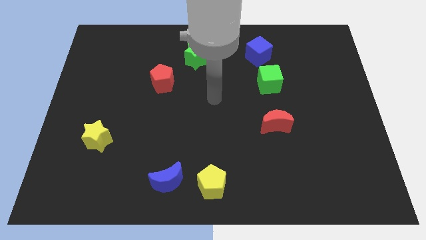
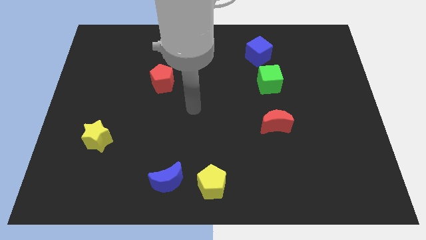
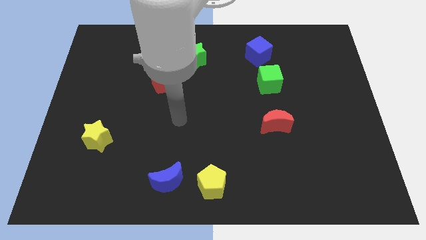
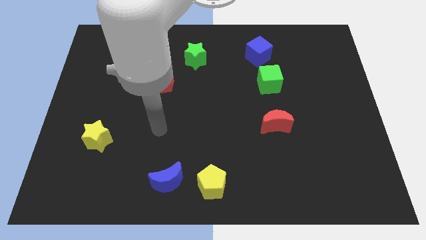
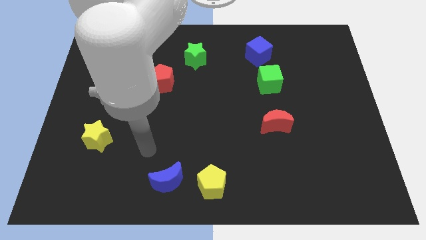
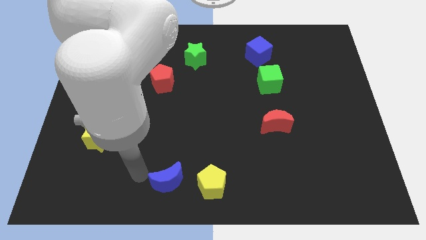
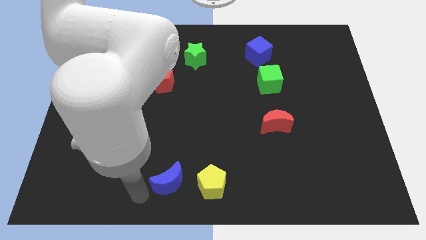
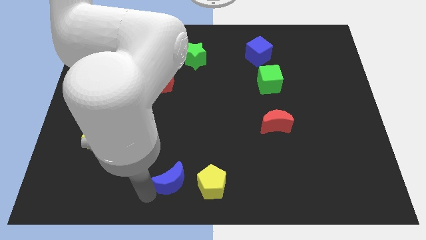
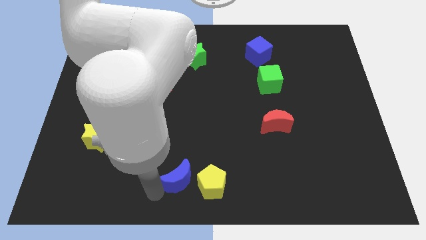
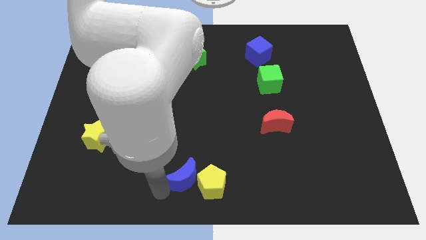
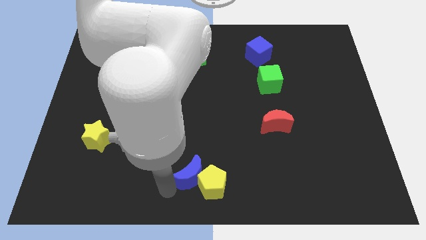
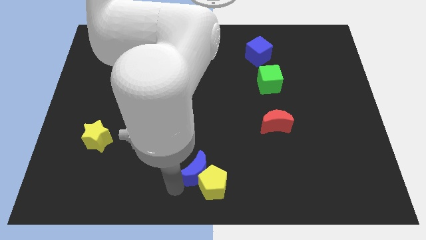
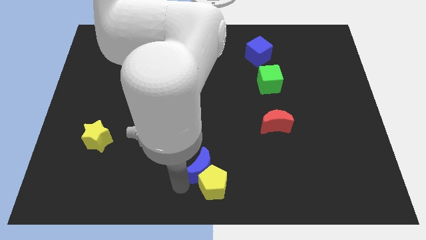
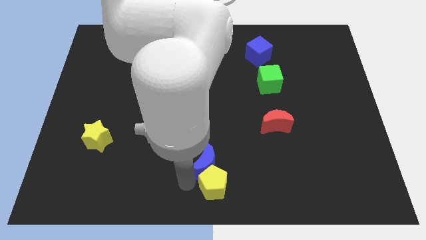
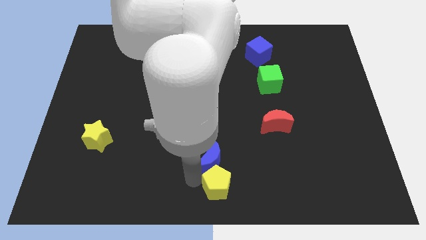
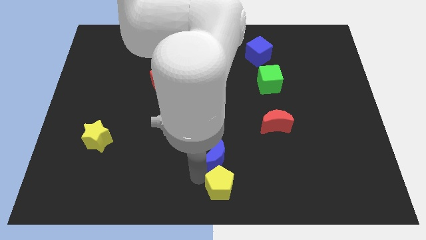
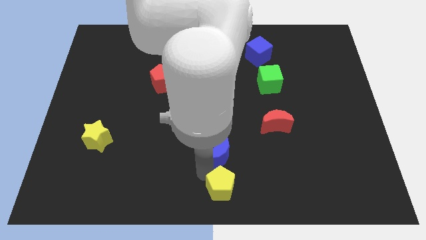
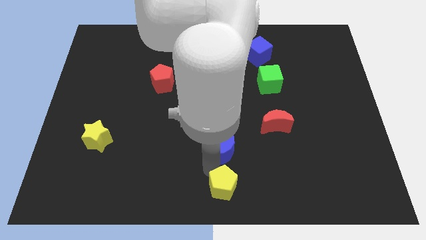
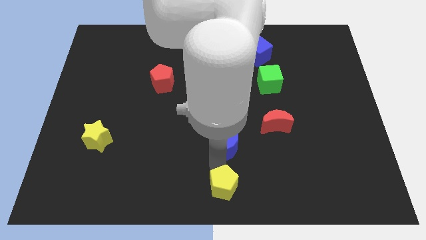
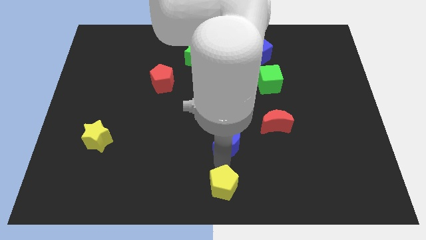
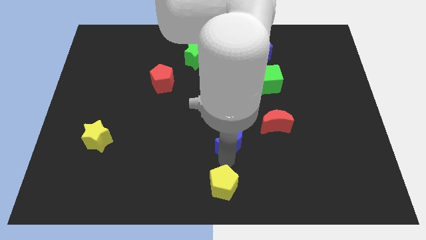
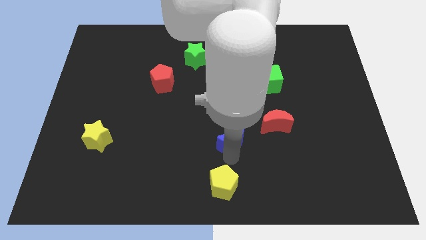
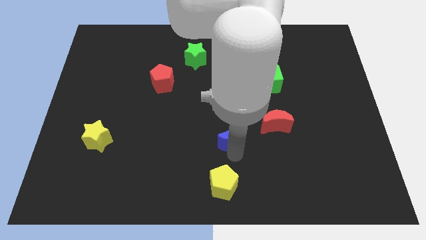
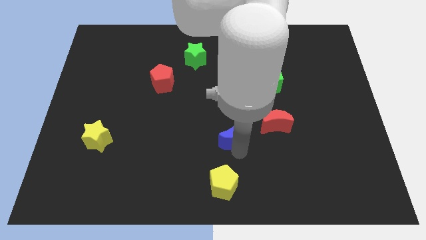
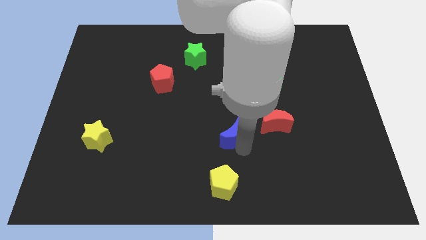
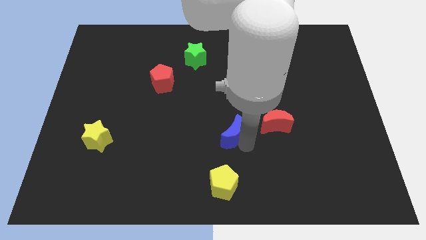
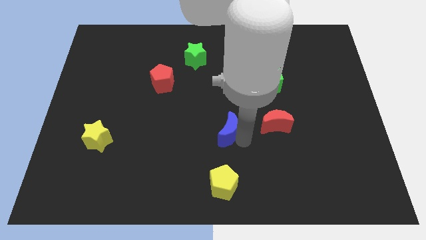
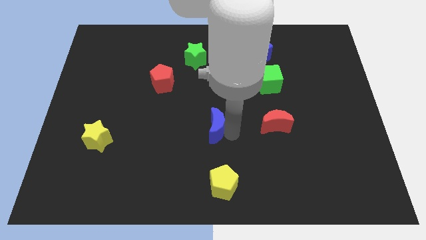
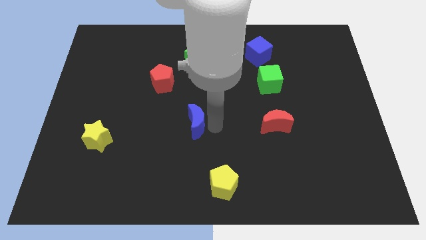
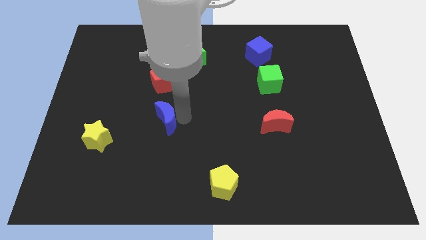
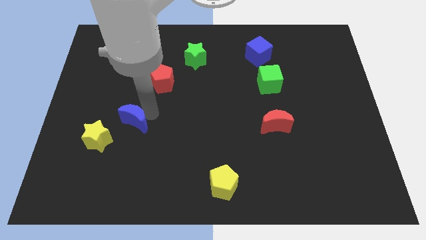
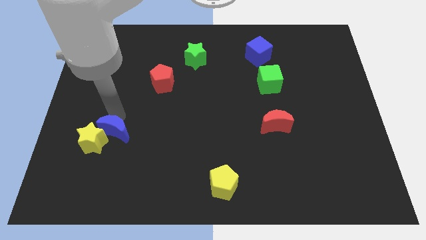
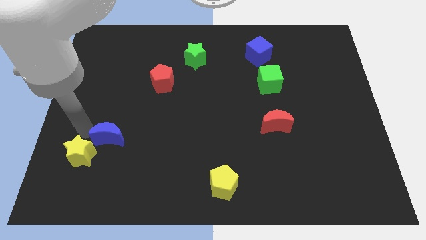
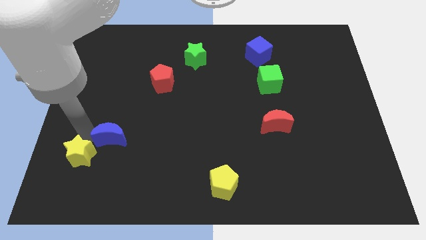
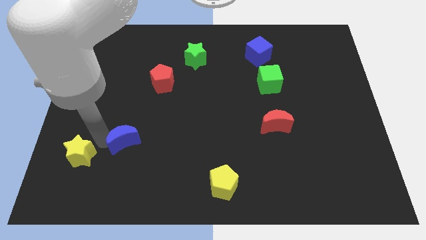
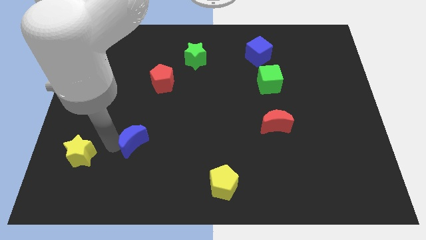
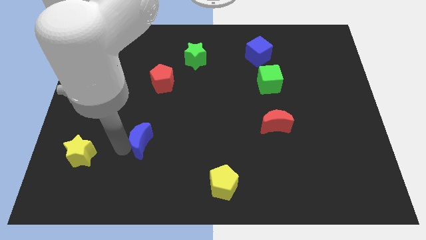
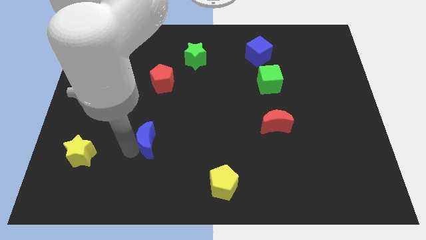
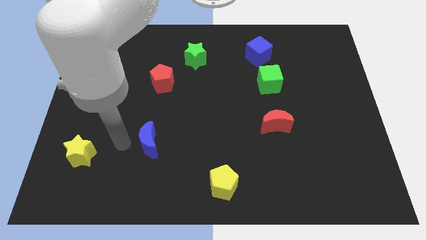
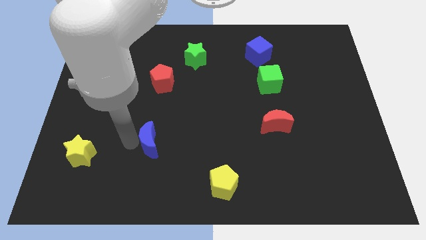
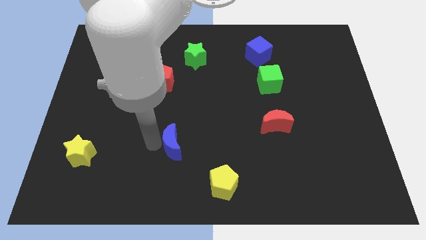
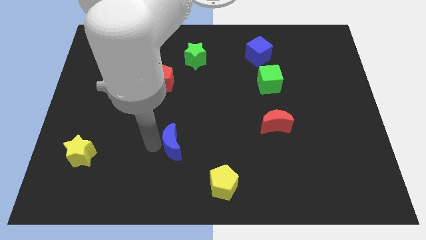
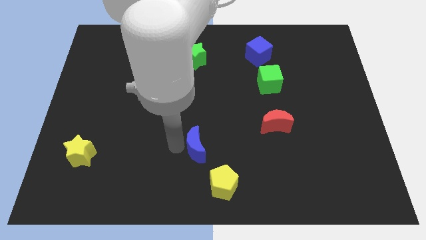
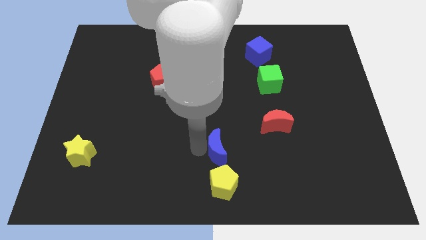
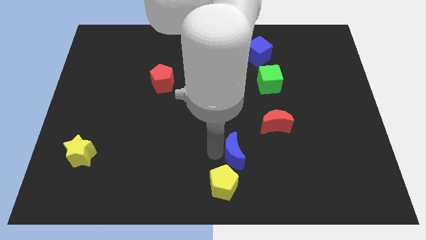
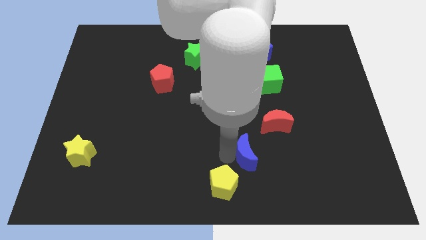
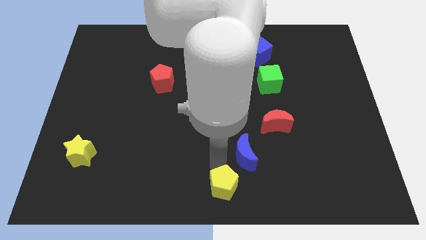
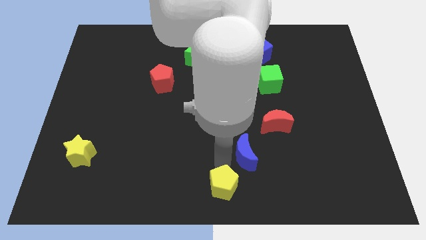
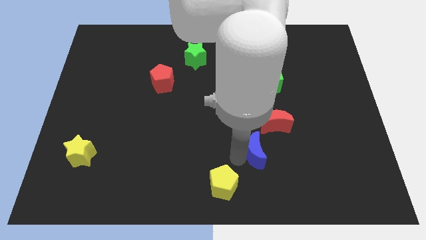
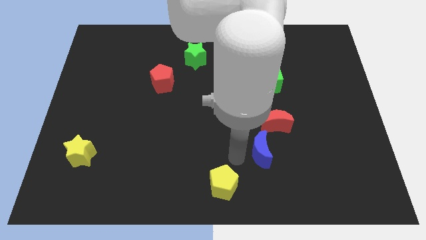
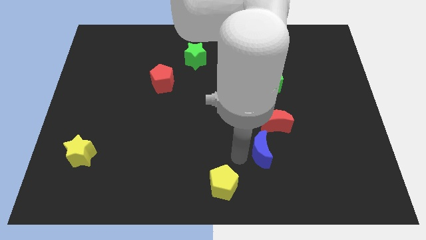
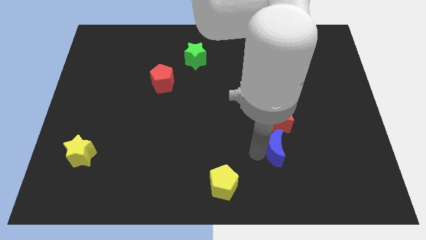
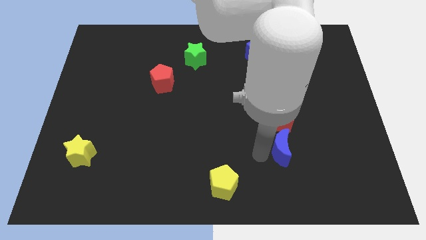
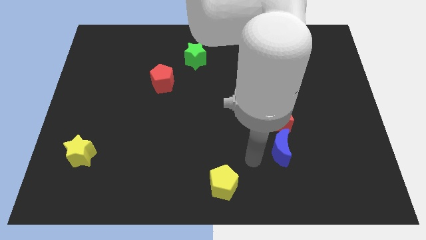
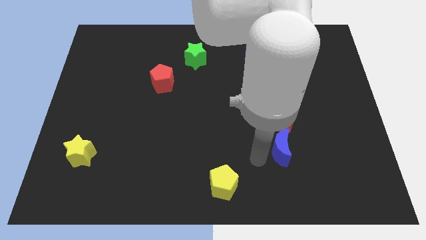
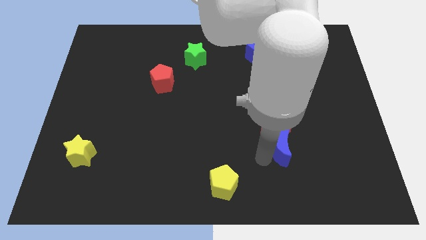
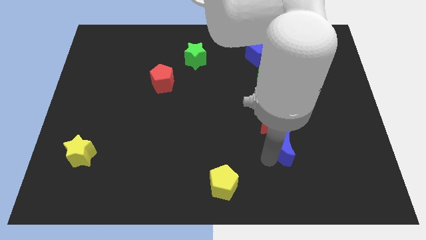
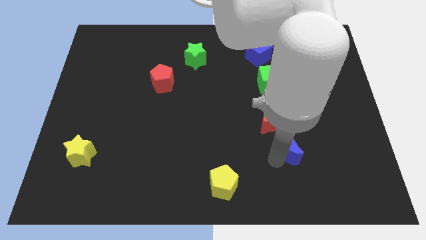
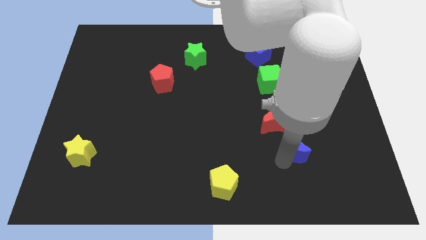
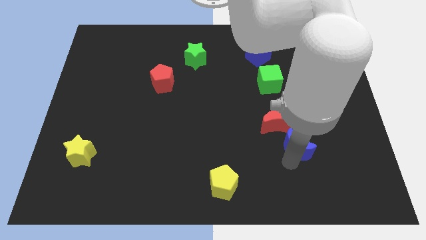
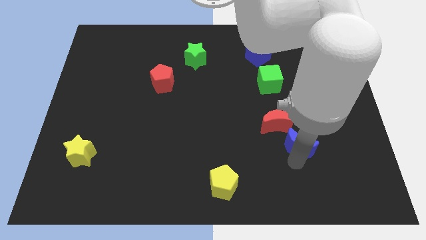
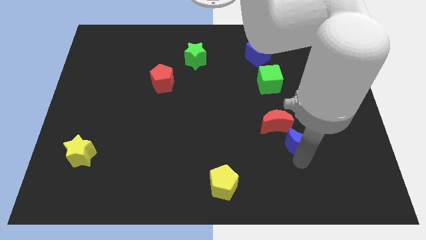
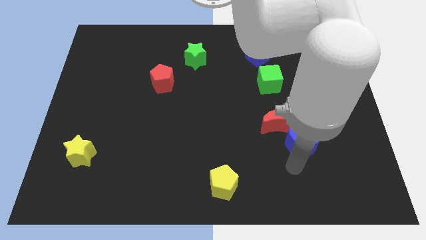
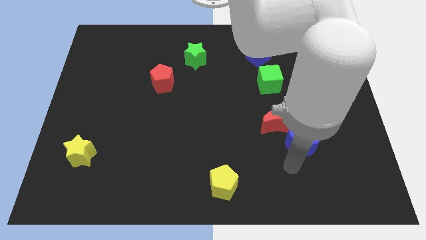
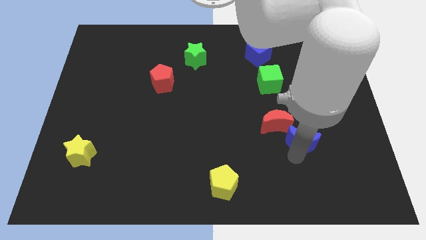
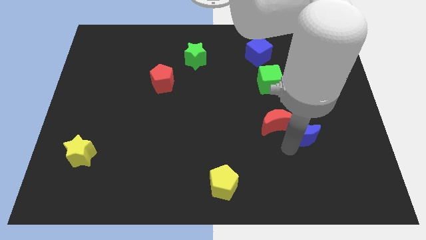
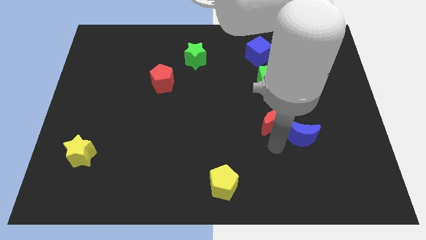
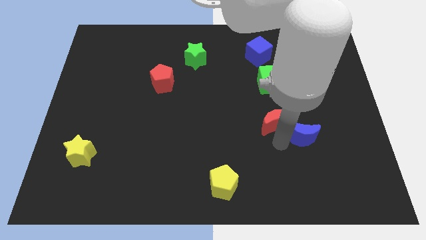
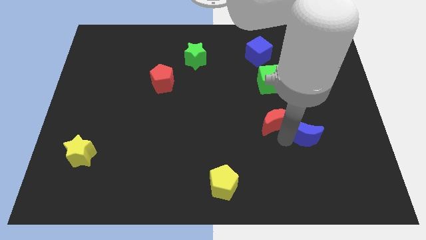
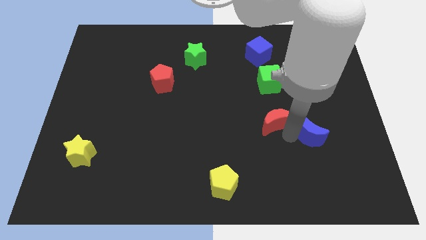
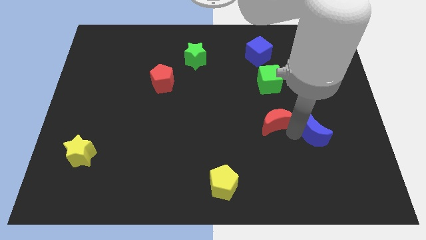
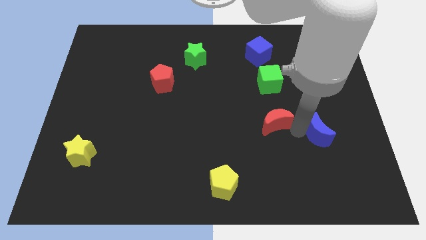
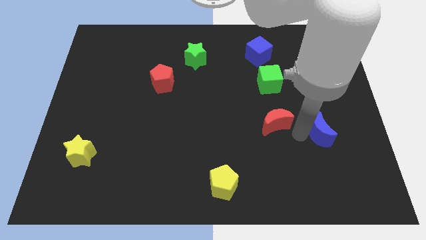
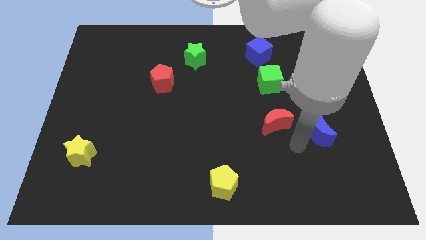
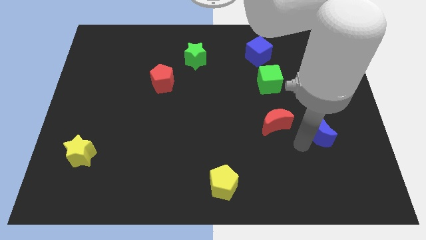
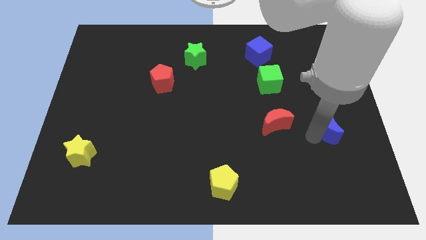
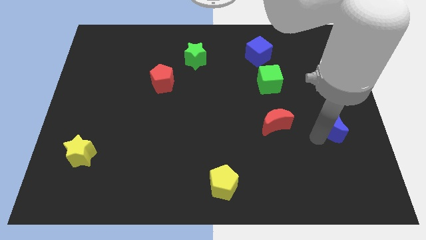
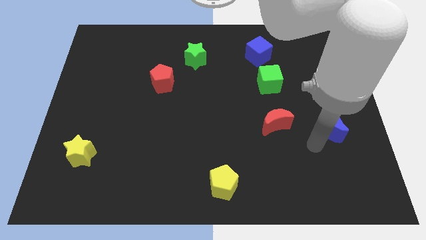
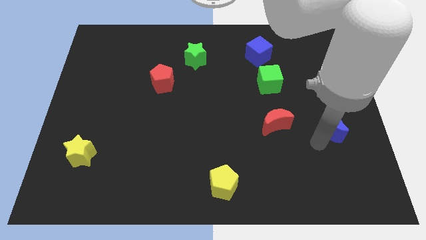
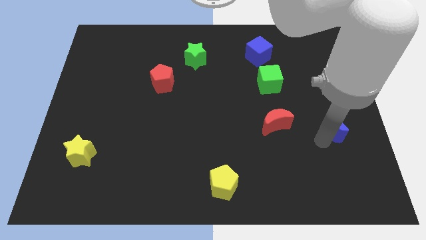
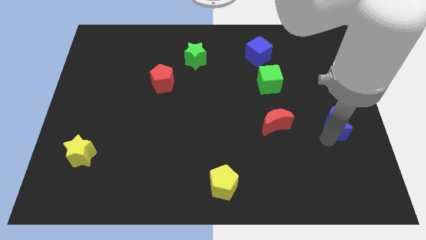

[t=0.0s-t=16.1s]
push the blue moon to the center right
